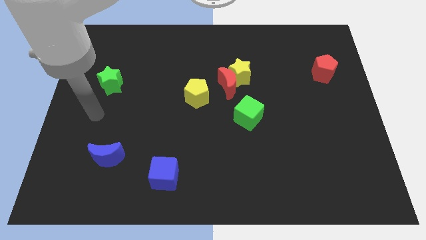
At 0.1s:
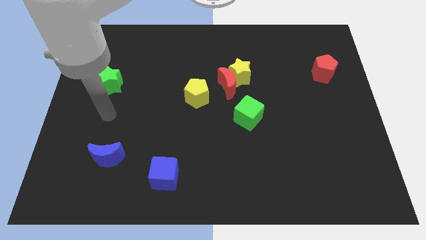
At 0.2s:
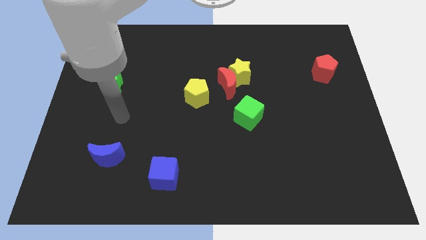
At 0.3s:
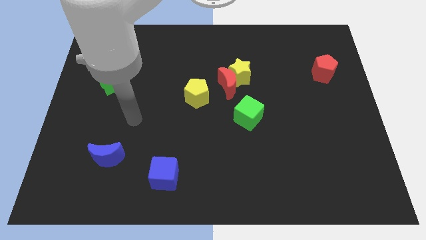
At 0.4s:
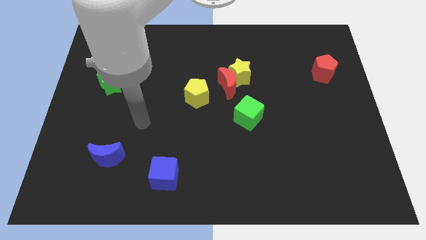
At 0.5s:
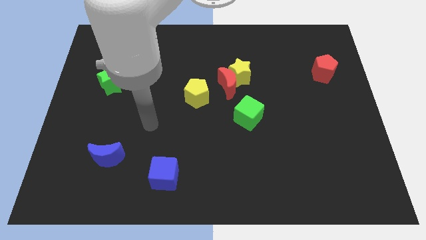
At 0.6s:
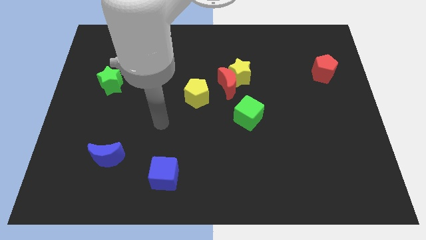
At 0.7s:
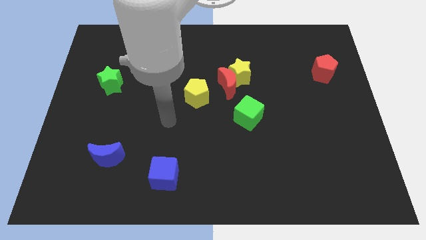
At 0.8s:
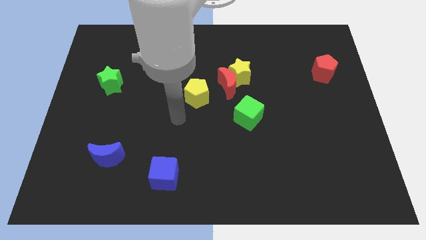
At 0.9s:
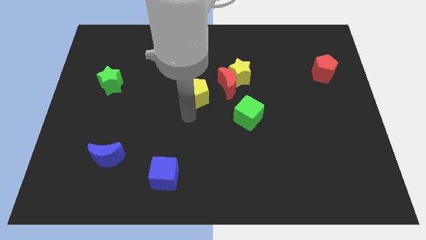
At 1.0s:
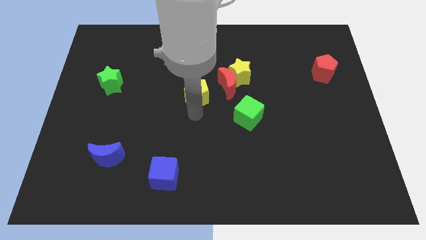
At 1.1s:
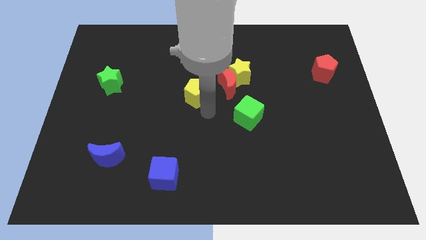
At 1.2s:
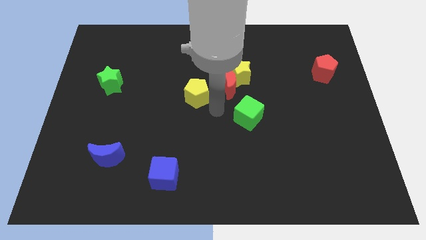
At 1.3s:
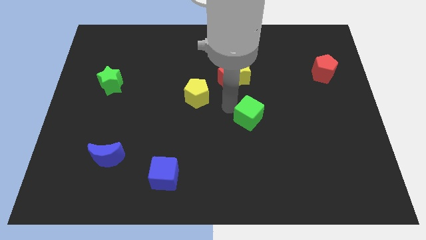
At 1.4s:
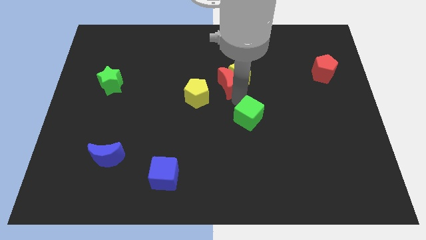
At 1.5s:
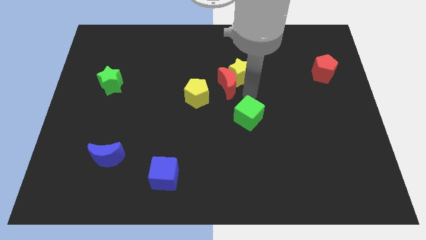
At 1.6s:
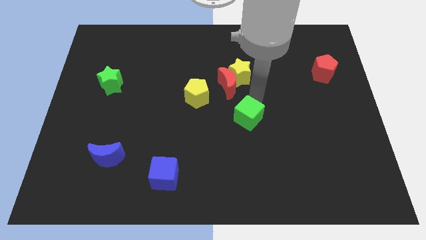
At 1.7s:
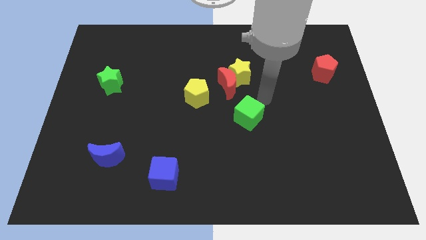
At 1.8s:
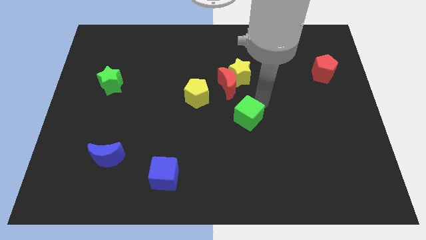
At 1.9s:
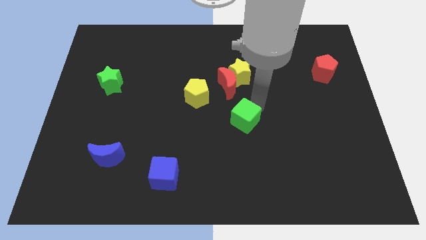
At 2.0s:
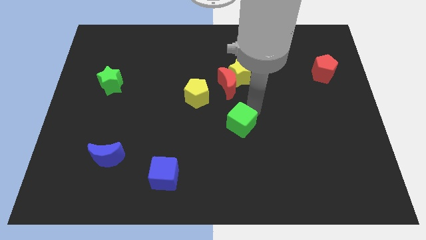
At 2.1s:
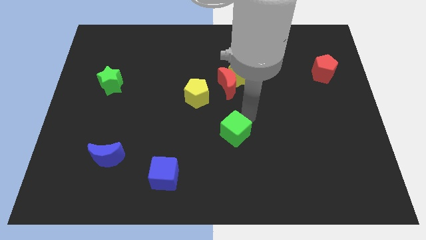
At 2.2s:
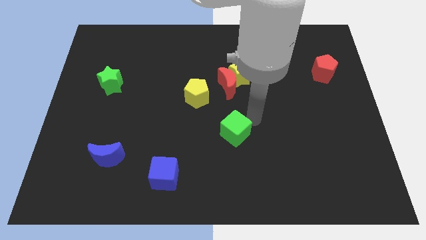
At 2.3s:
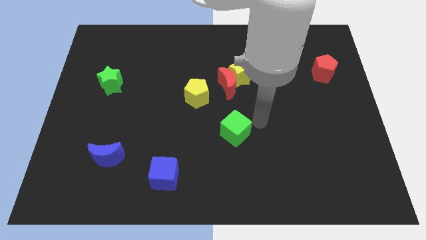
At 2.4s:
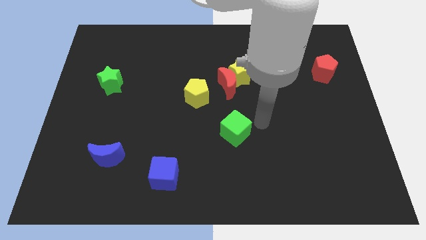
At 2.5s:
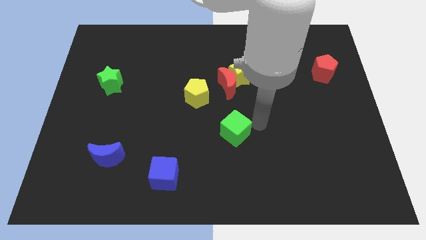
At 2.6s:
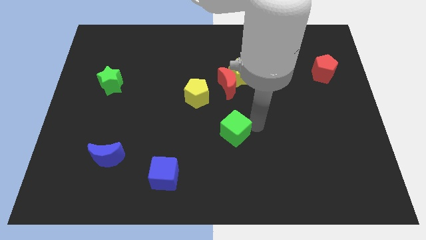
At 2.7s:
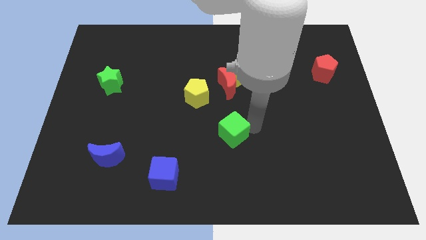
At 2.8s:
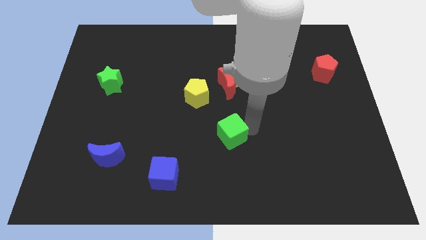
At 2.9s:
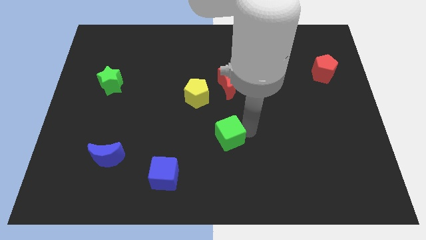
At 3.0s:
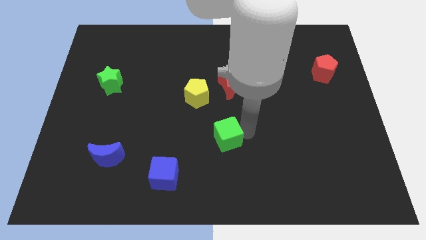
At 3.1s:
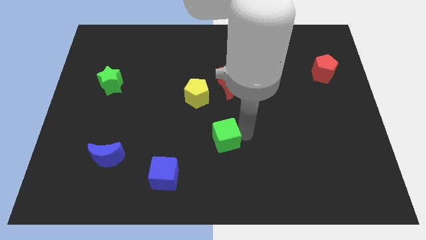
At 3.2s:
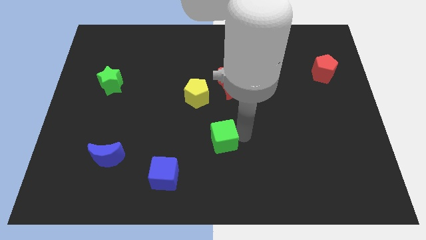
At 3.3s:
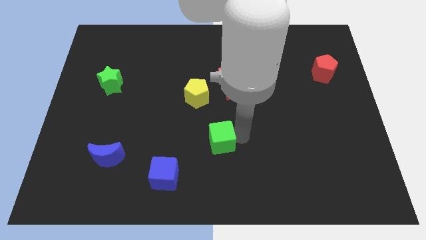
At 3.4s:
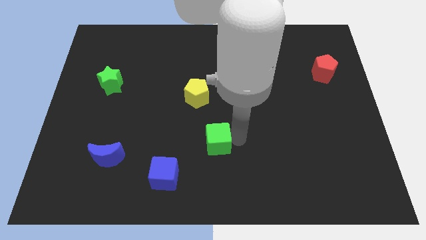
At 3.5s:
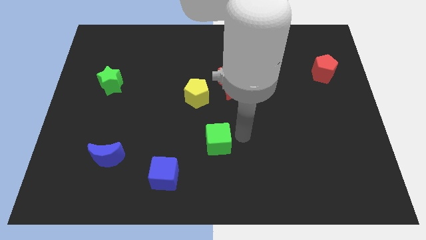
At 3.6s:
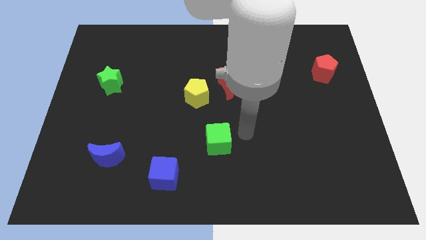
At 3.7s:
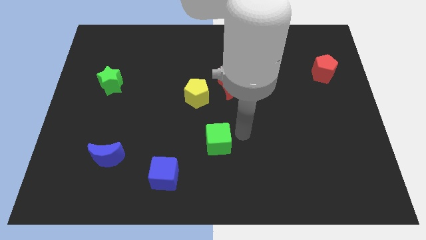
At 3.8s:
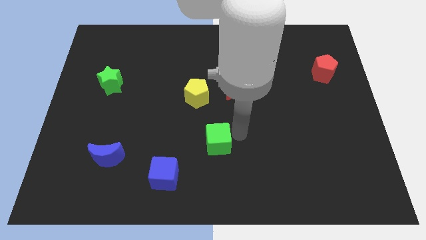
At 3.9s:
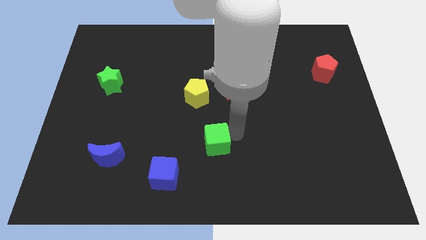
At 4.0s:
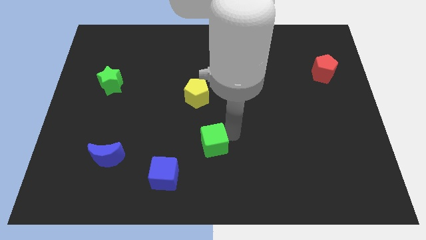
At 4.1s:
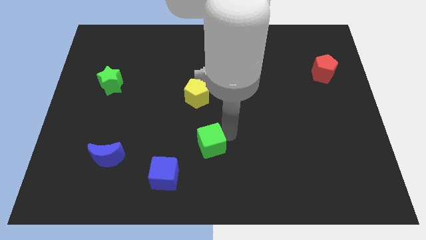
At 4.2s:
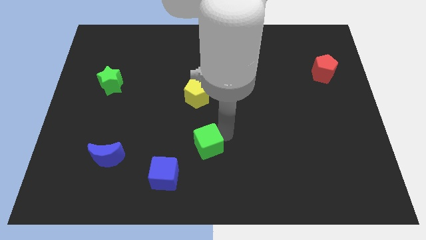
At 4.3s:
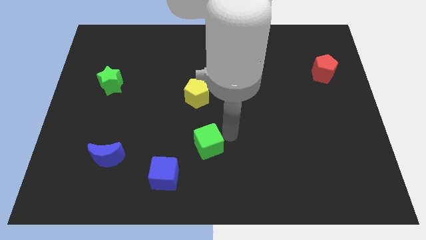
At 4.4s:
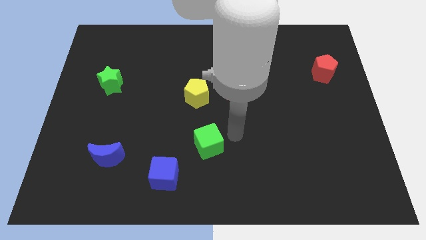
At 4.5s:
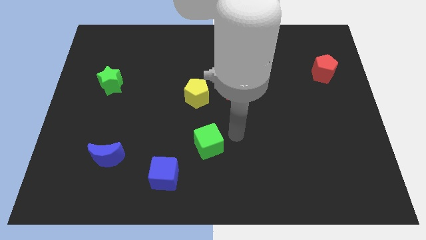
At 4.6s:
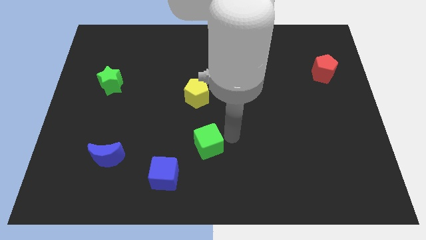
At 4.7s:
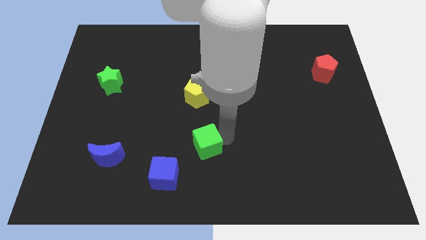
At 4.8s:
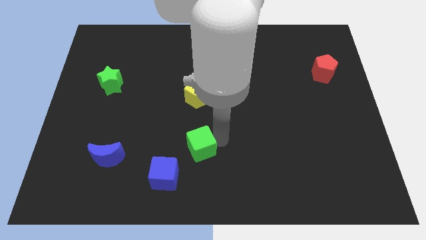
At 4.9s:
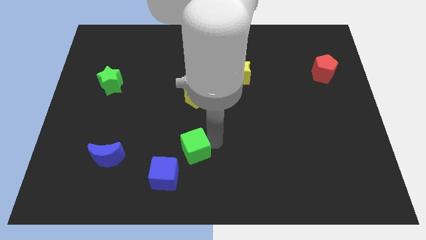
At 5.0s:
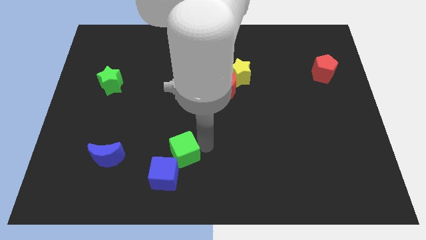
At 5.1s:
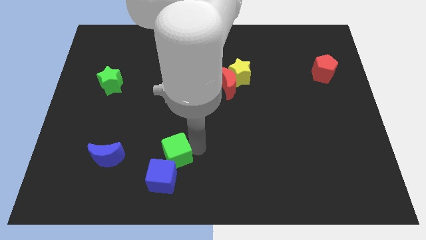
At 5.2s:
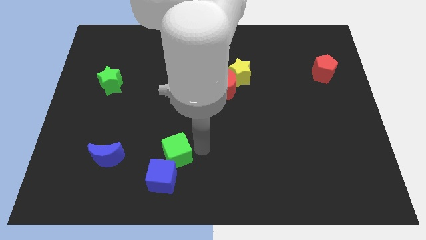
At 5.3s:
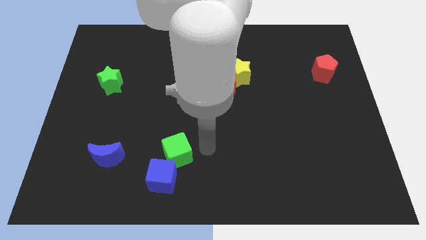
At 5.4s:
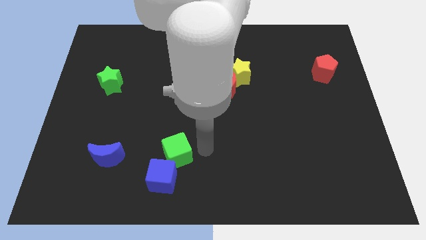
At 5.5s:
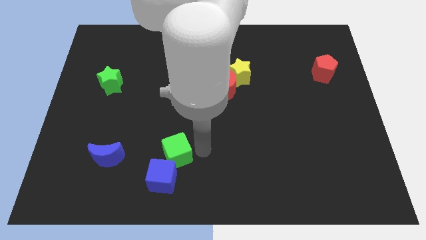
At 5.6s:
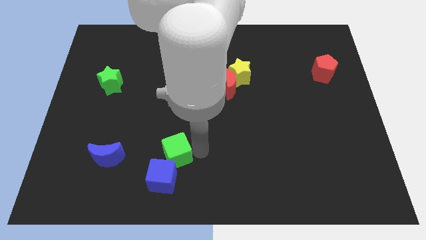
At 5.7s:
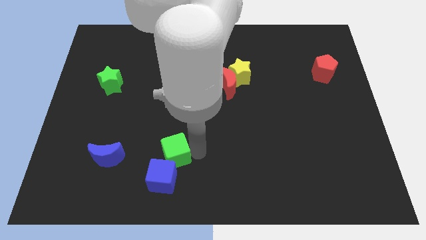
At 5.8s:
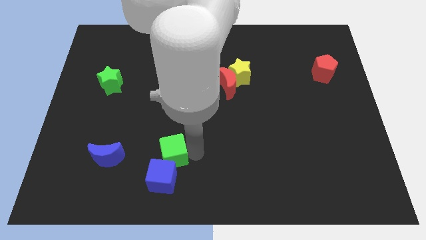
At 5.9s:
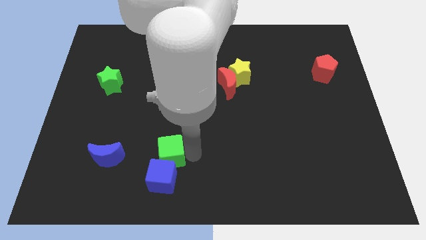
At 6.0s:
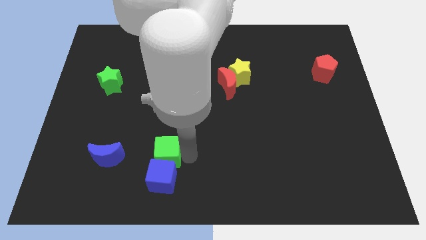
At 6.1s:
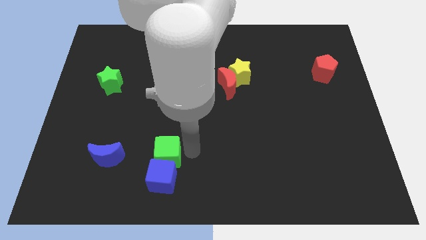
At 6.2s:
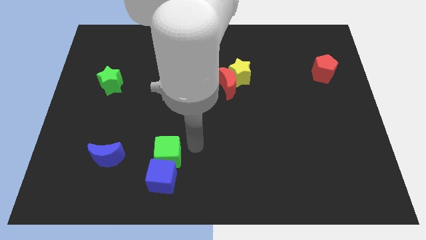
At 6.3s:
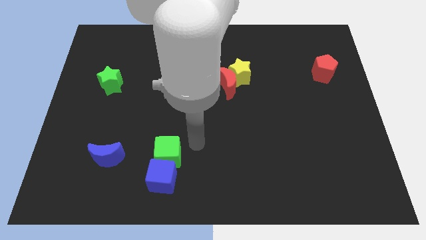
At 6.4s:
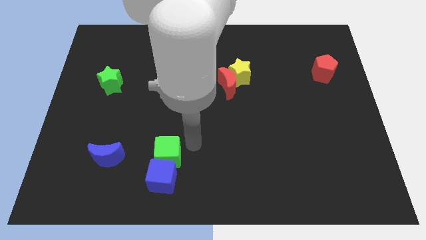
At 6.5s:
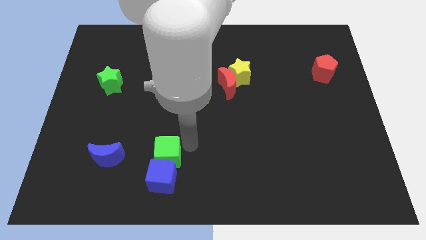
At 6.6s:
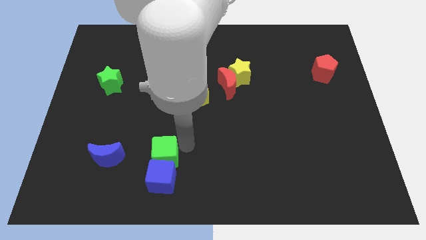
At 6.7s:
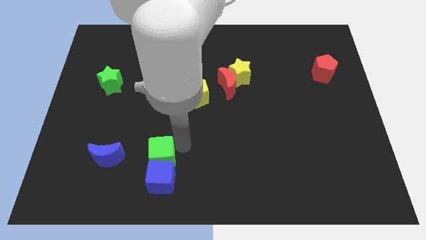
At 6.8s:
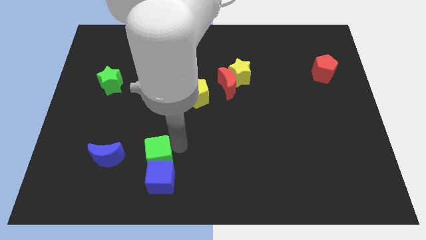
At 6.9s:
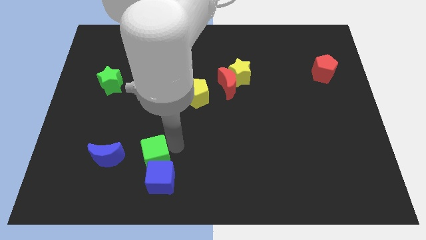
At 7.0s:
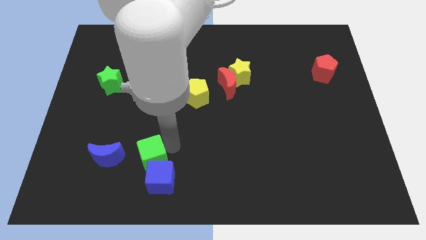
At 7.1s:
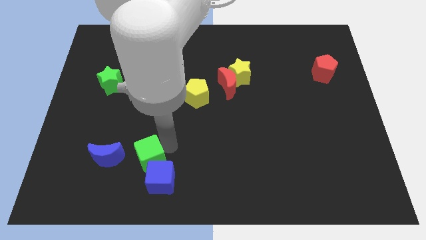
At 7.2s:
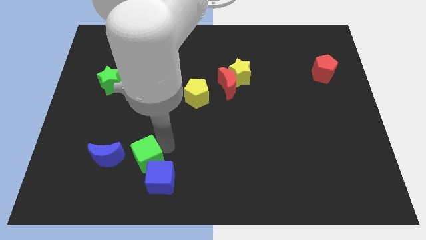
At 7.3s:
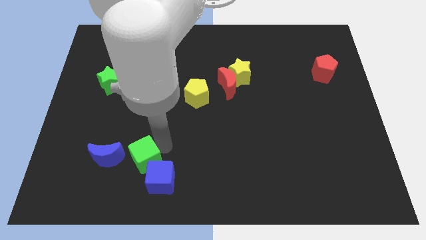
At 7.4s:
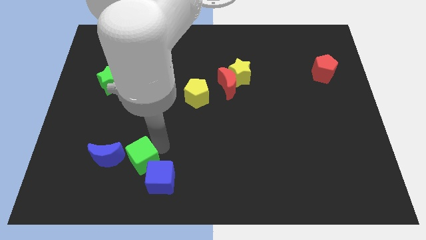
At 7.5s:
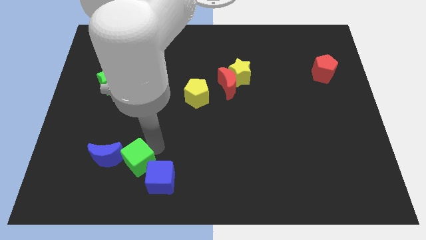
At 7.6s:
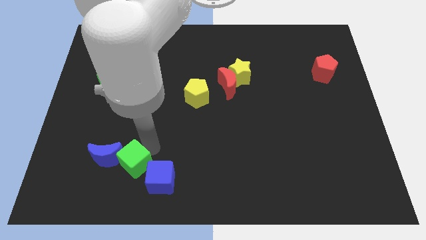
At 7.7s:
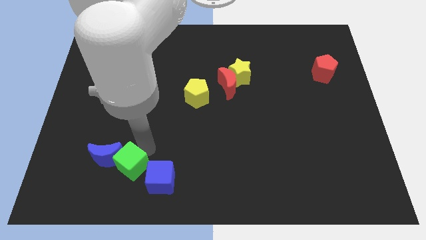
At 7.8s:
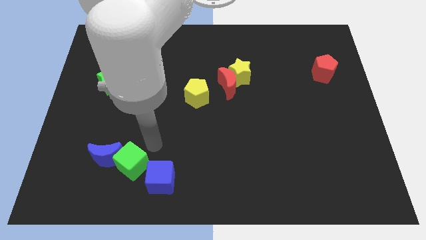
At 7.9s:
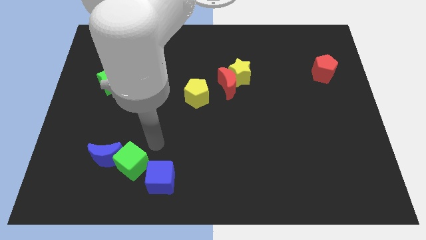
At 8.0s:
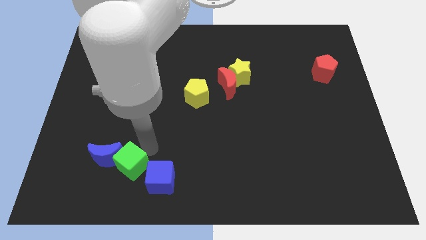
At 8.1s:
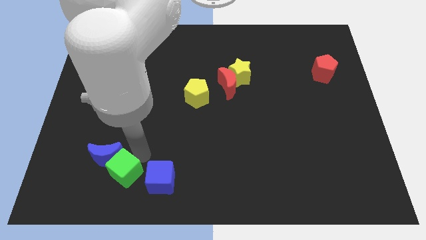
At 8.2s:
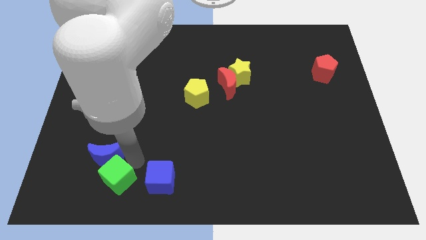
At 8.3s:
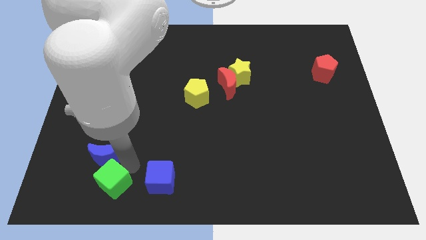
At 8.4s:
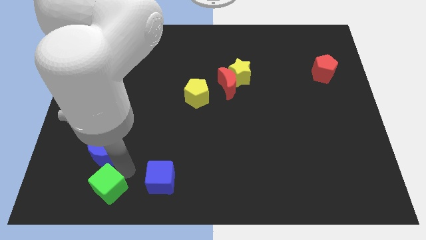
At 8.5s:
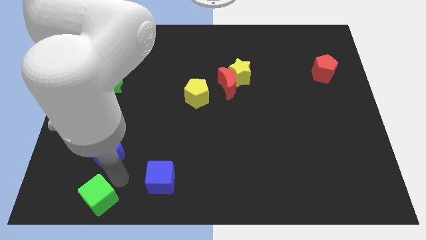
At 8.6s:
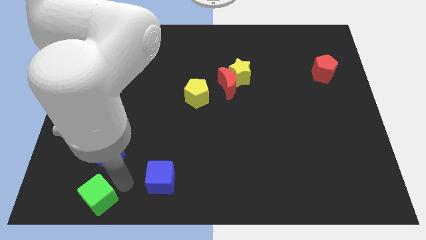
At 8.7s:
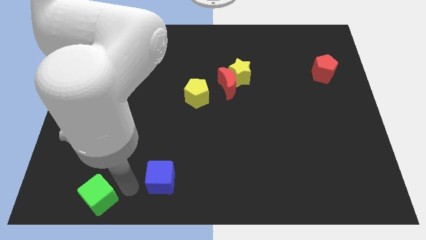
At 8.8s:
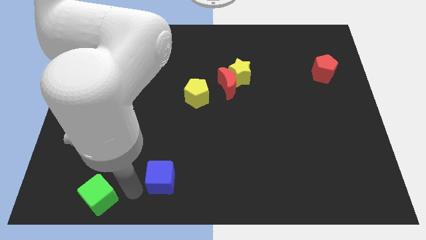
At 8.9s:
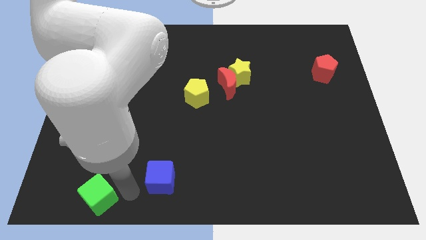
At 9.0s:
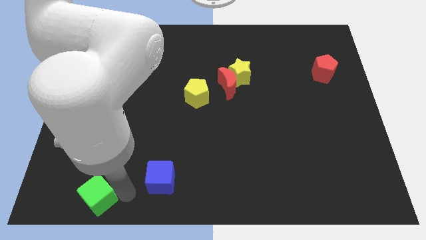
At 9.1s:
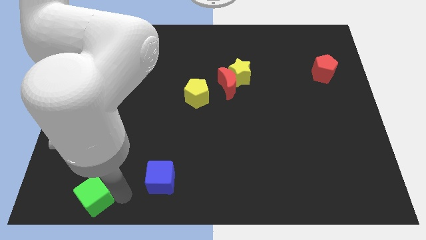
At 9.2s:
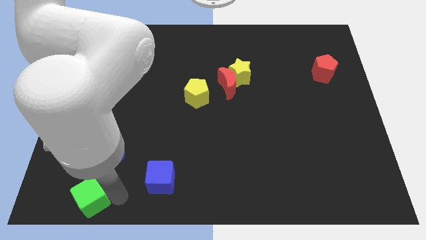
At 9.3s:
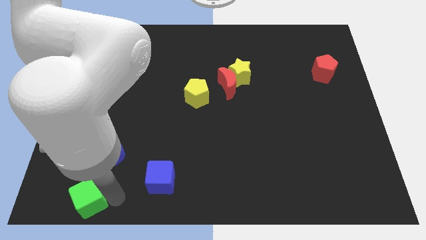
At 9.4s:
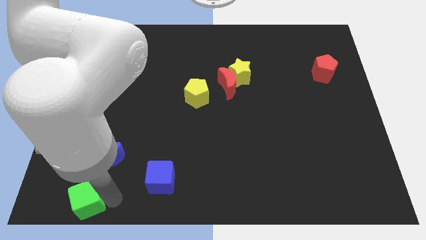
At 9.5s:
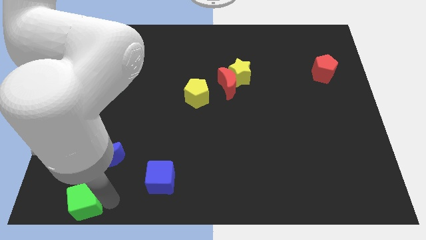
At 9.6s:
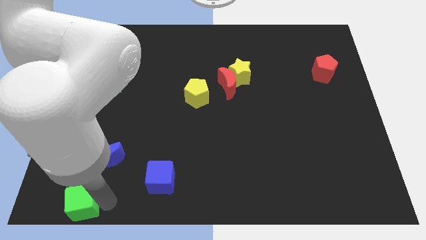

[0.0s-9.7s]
put the green cube to the lower left corner
